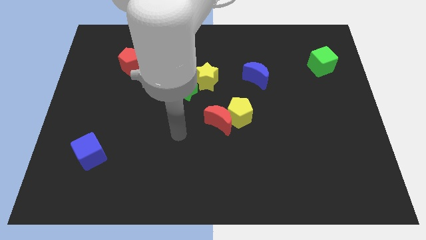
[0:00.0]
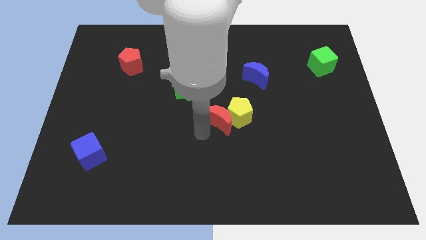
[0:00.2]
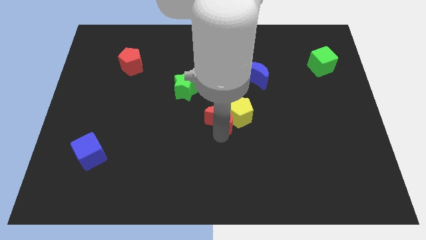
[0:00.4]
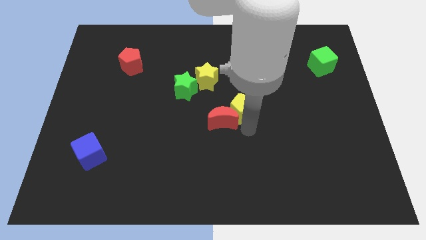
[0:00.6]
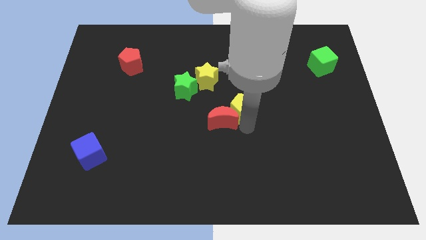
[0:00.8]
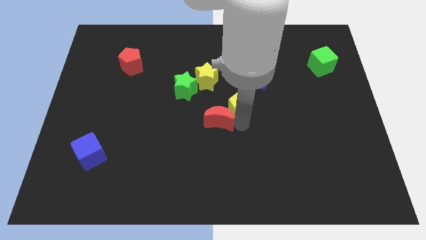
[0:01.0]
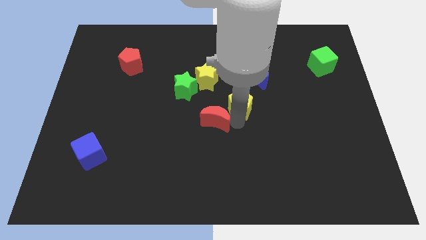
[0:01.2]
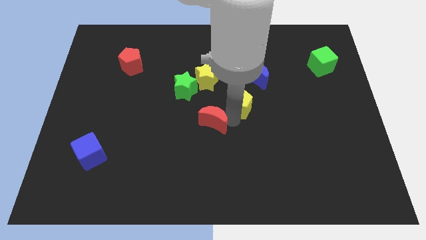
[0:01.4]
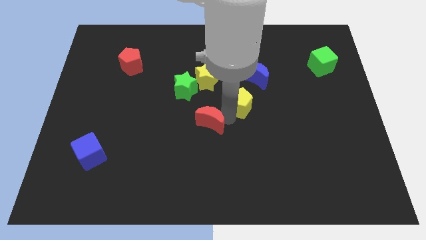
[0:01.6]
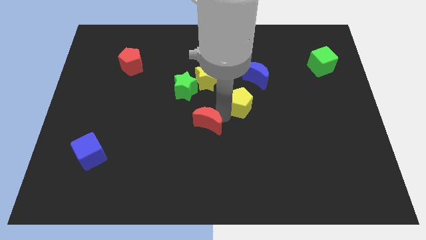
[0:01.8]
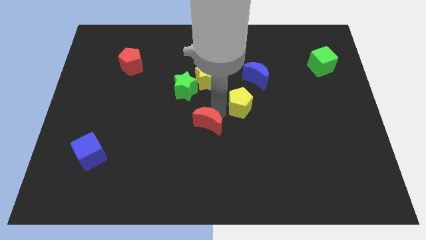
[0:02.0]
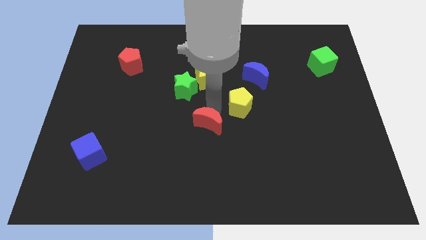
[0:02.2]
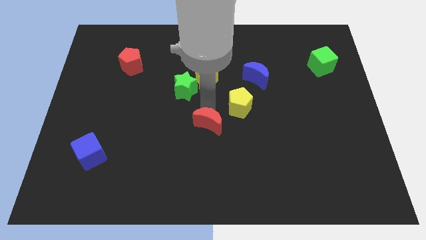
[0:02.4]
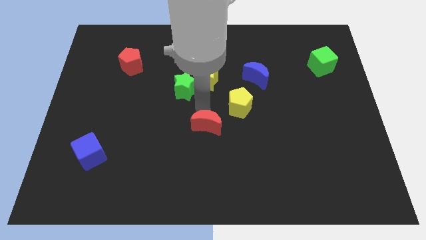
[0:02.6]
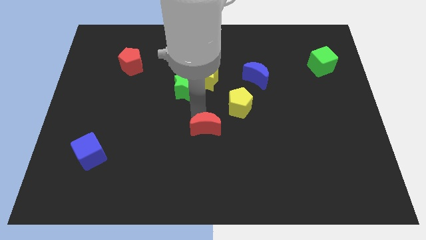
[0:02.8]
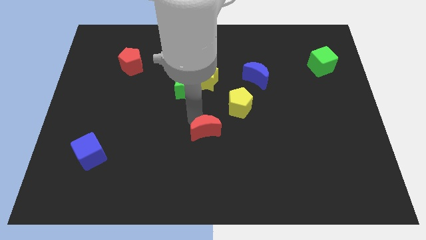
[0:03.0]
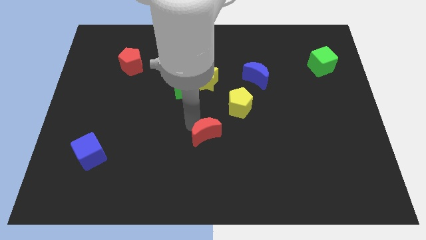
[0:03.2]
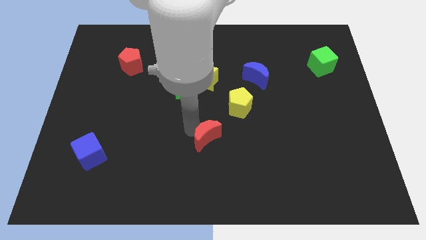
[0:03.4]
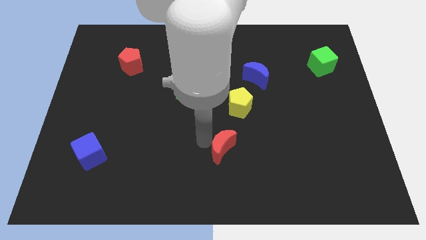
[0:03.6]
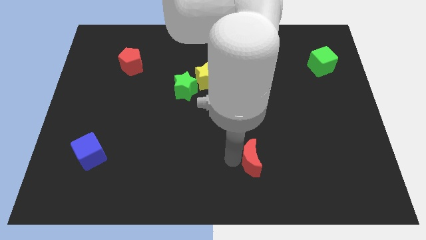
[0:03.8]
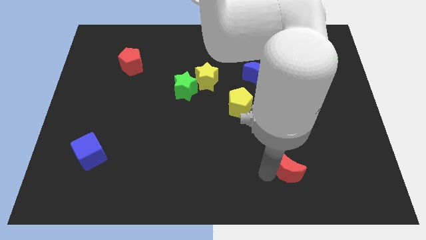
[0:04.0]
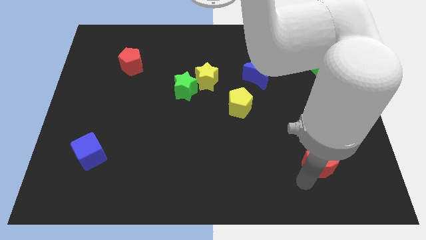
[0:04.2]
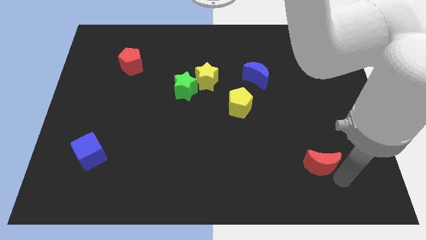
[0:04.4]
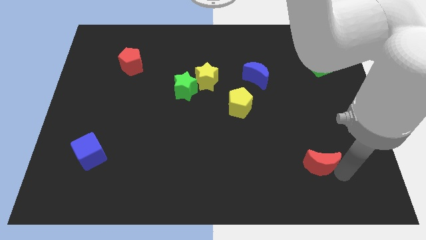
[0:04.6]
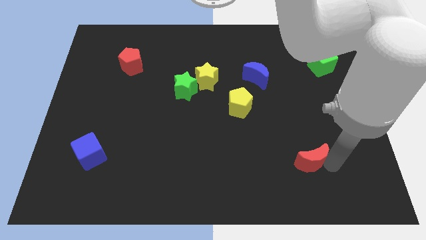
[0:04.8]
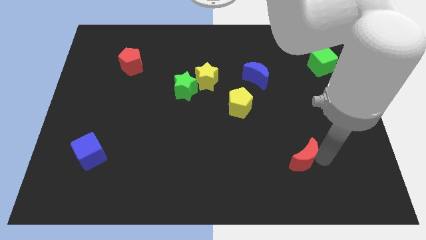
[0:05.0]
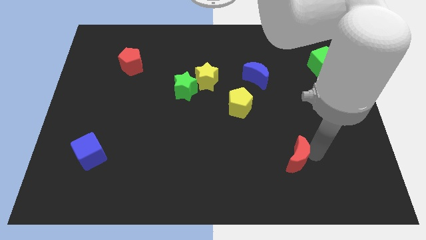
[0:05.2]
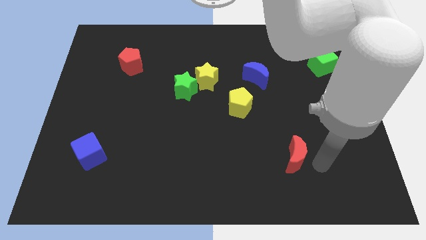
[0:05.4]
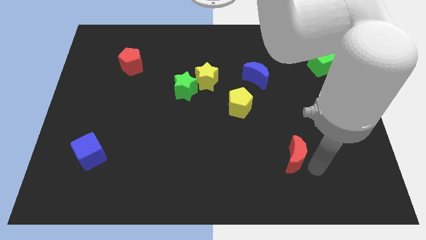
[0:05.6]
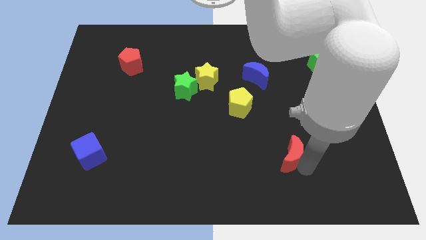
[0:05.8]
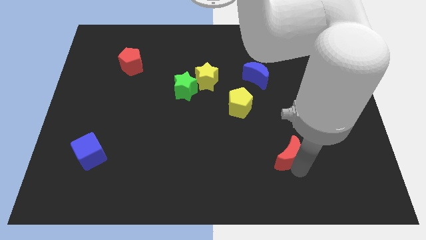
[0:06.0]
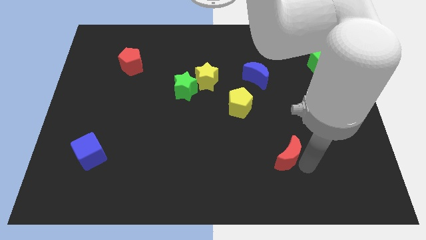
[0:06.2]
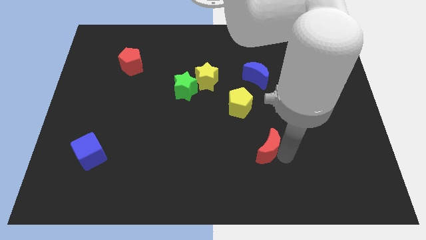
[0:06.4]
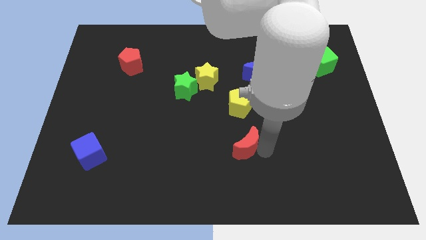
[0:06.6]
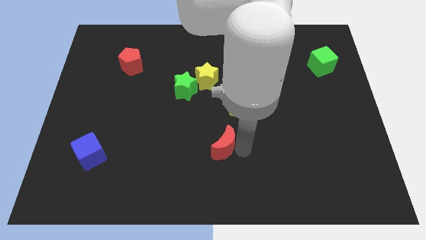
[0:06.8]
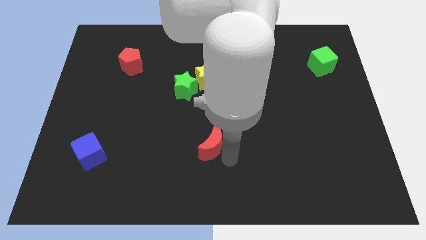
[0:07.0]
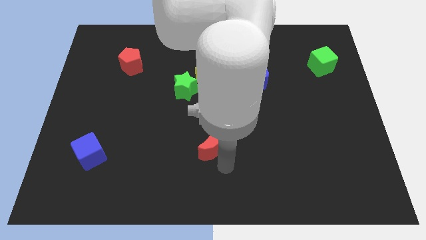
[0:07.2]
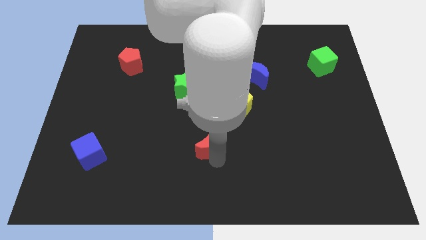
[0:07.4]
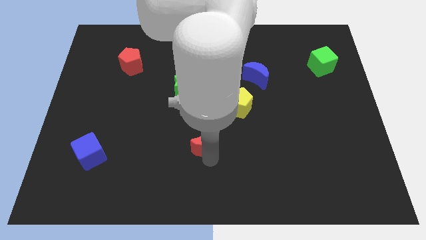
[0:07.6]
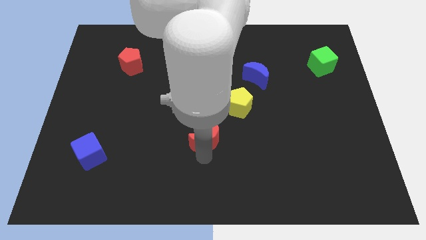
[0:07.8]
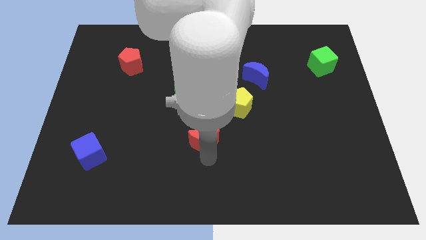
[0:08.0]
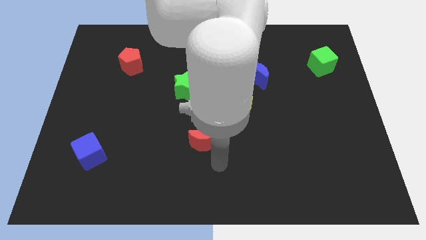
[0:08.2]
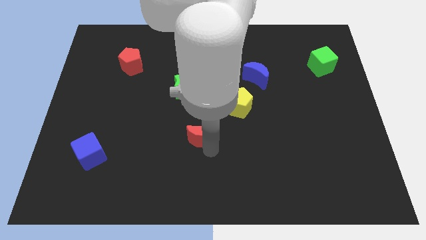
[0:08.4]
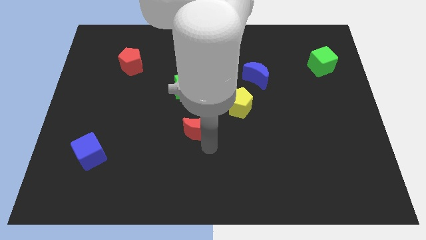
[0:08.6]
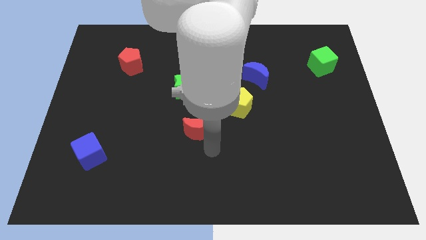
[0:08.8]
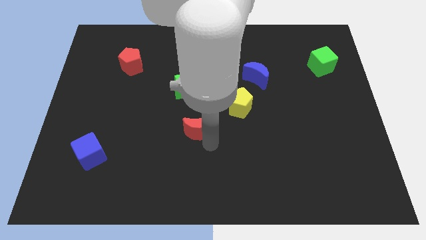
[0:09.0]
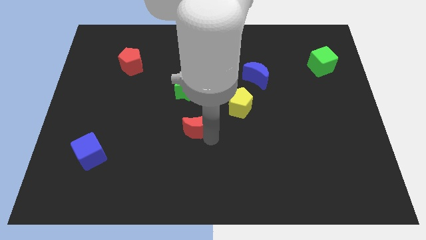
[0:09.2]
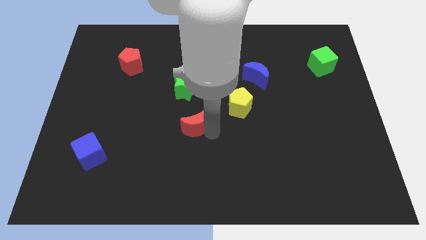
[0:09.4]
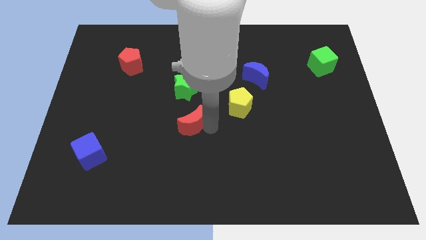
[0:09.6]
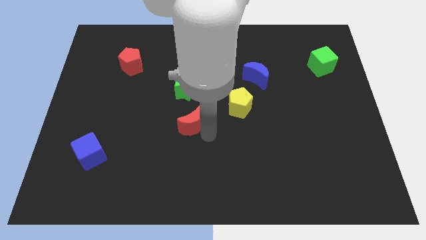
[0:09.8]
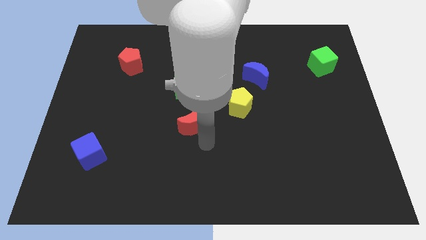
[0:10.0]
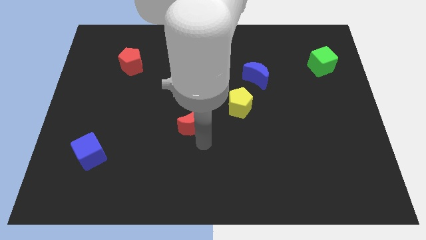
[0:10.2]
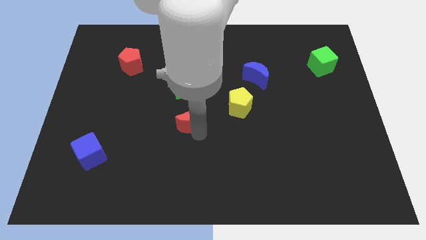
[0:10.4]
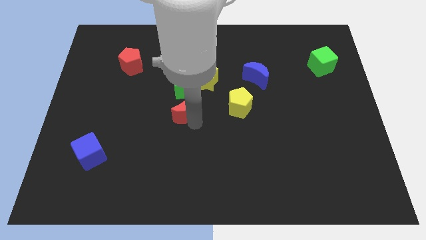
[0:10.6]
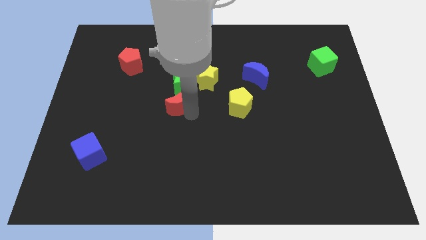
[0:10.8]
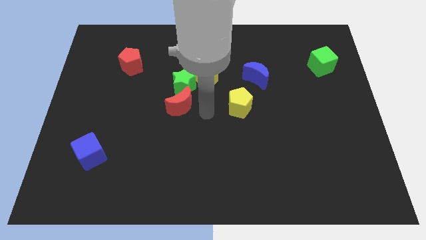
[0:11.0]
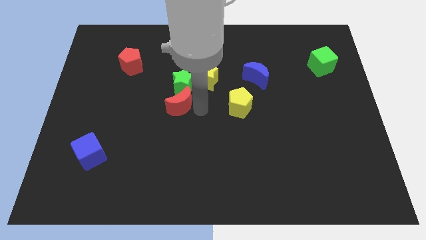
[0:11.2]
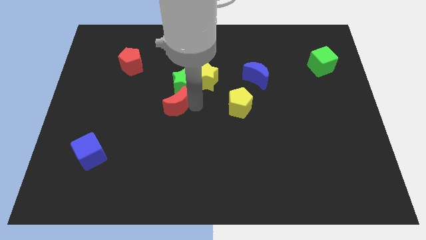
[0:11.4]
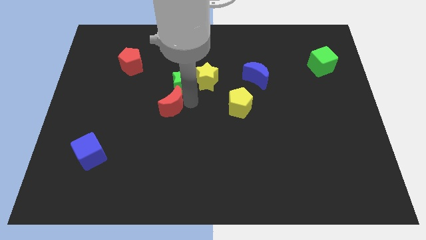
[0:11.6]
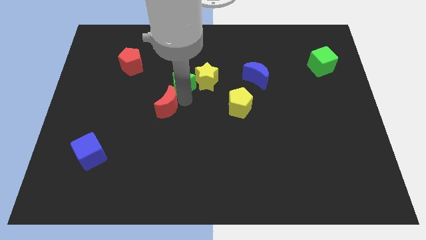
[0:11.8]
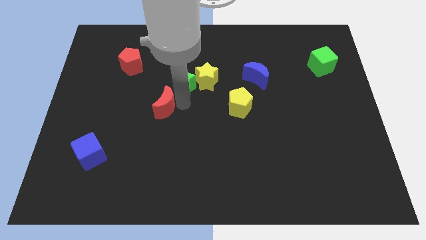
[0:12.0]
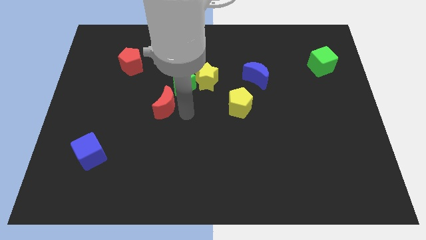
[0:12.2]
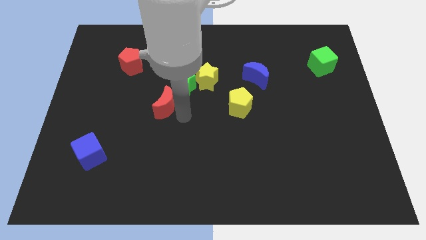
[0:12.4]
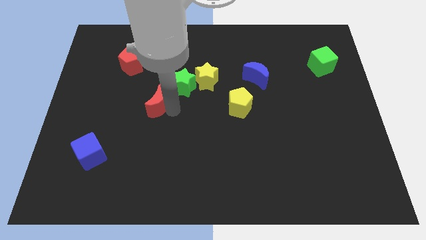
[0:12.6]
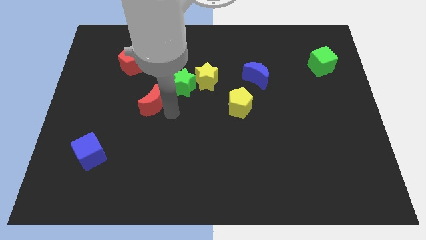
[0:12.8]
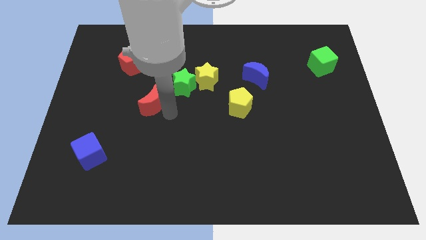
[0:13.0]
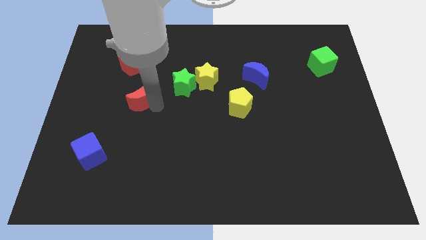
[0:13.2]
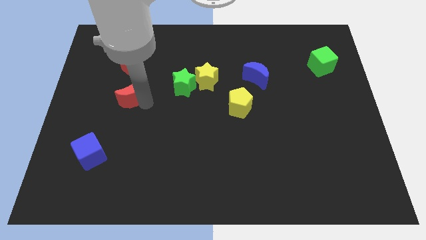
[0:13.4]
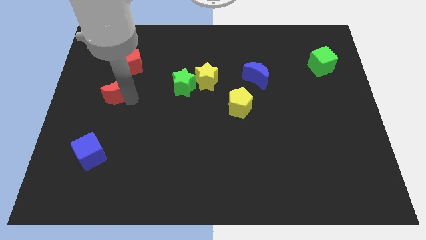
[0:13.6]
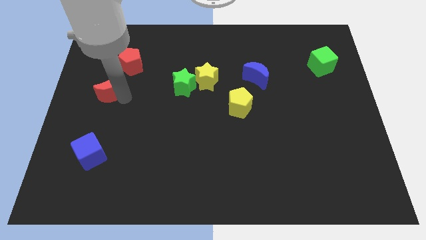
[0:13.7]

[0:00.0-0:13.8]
move the red moon to the bottom left side of the red pentagon
